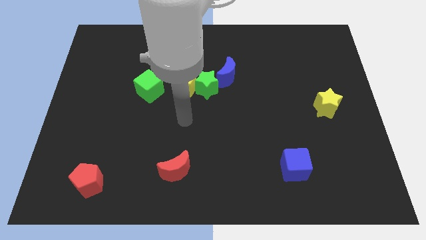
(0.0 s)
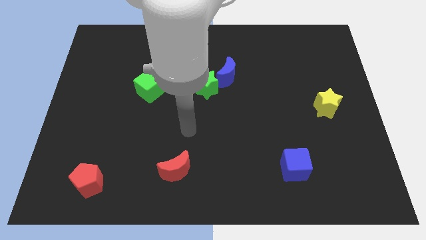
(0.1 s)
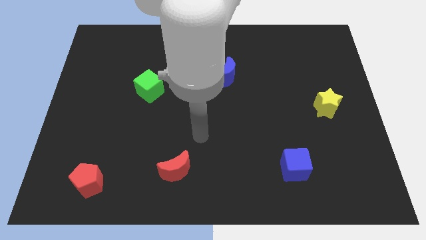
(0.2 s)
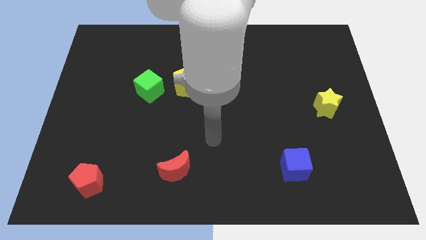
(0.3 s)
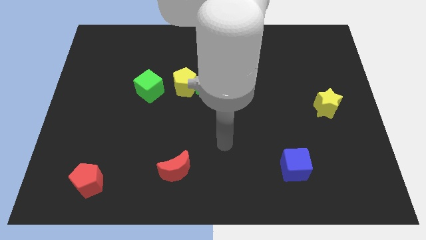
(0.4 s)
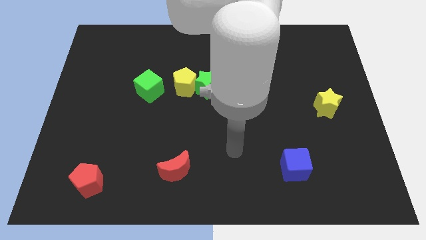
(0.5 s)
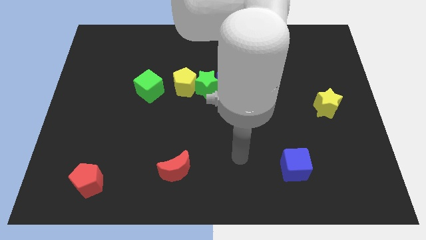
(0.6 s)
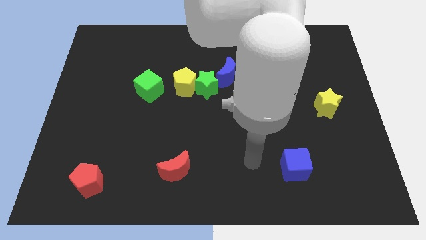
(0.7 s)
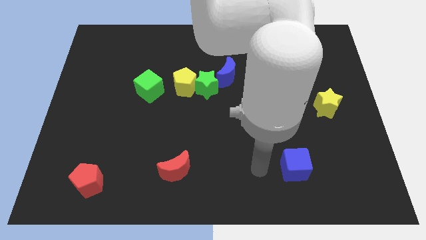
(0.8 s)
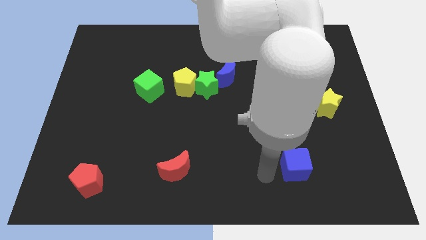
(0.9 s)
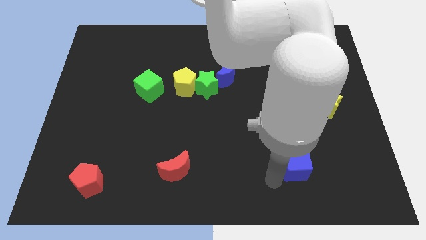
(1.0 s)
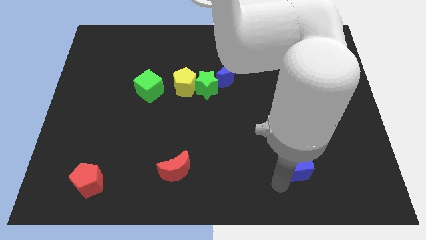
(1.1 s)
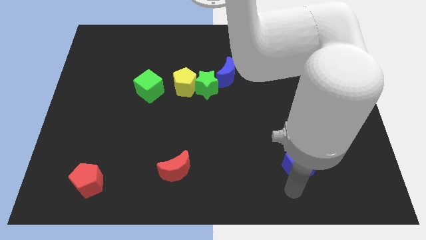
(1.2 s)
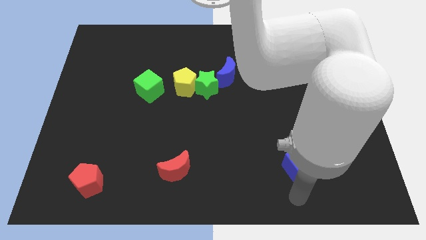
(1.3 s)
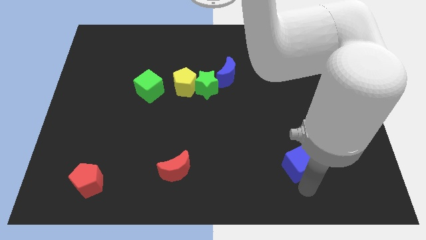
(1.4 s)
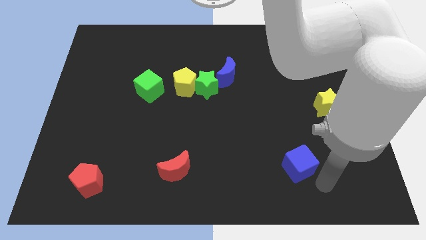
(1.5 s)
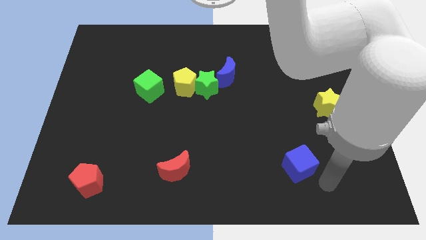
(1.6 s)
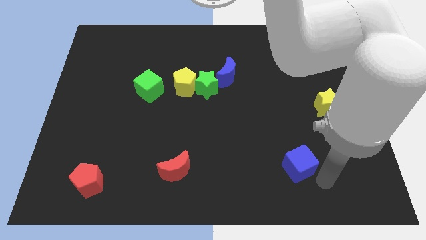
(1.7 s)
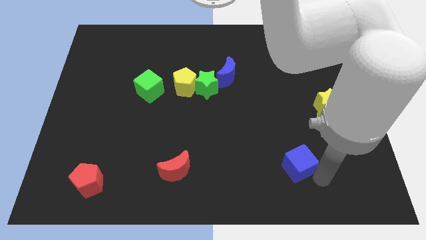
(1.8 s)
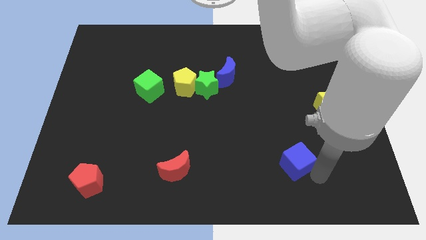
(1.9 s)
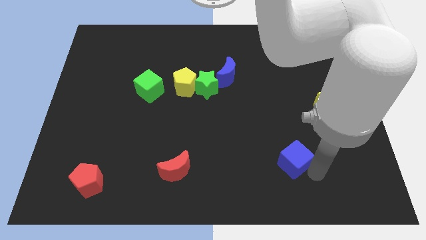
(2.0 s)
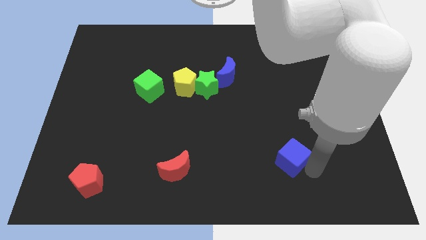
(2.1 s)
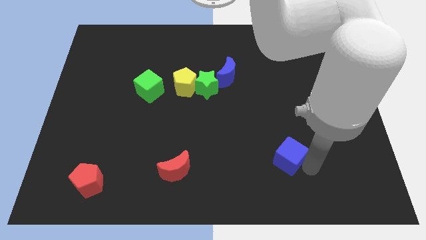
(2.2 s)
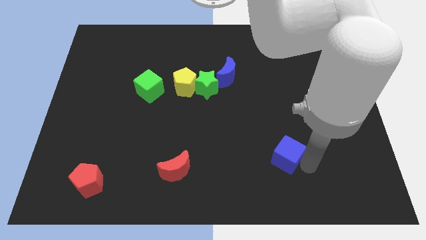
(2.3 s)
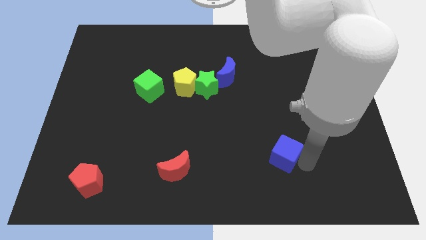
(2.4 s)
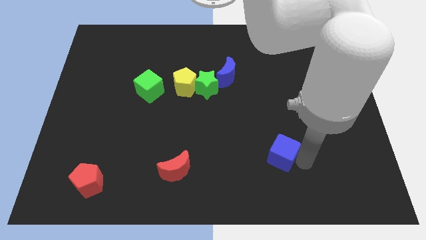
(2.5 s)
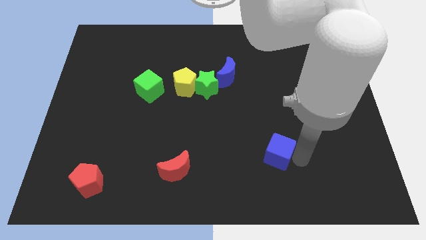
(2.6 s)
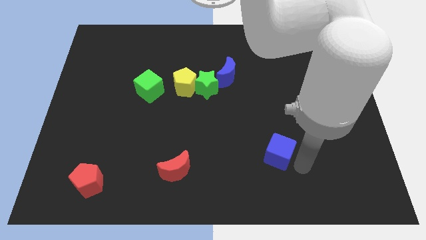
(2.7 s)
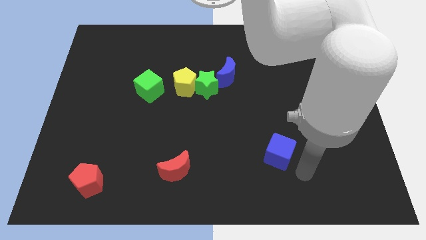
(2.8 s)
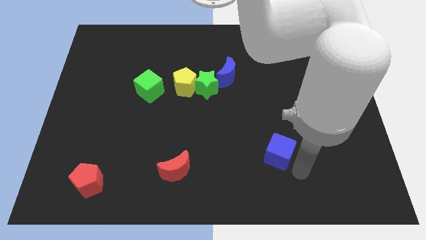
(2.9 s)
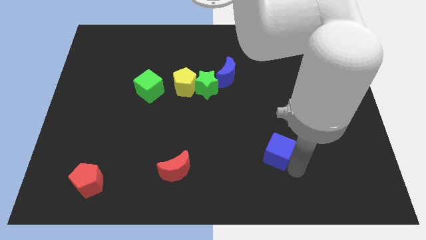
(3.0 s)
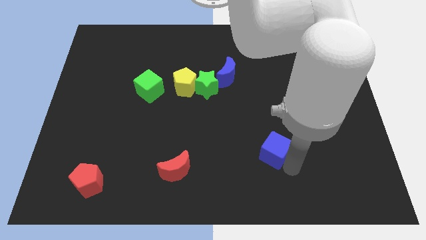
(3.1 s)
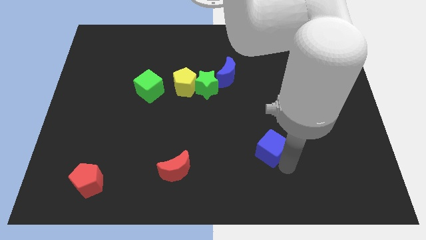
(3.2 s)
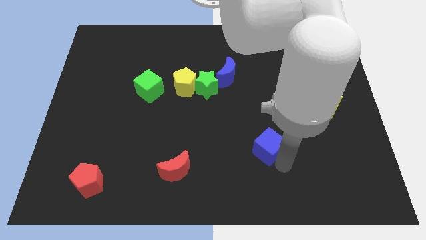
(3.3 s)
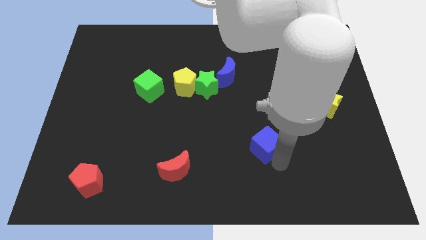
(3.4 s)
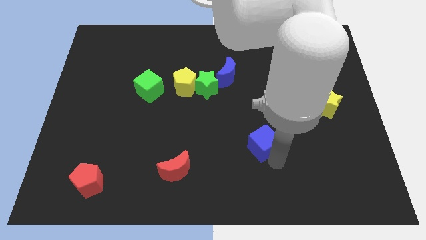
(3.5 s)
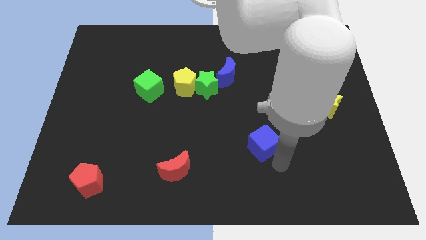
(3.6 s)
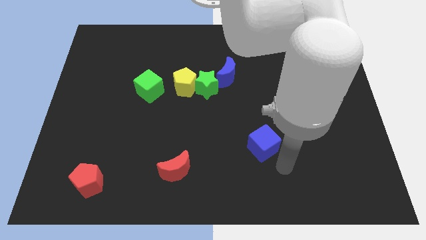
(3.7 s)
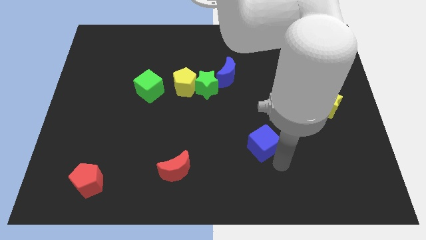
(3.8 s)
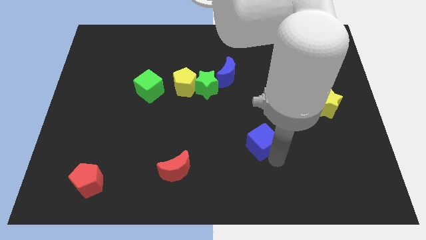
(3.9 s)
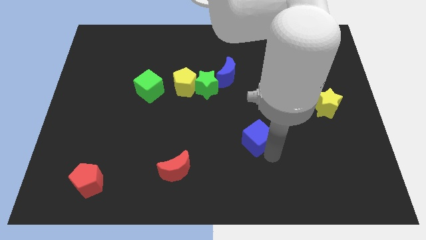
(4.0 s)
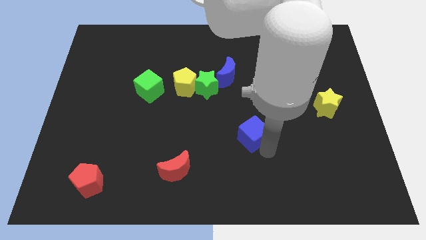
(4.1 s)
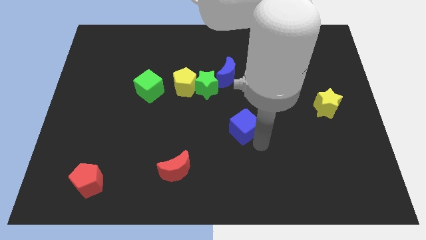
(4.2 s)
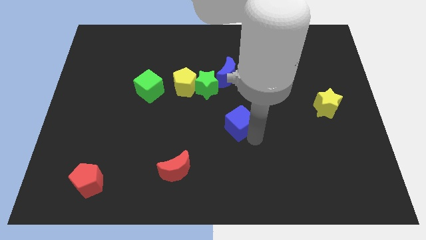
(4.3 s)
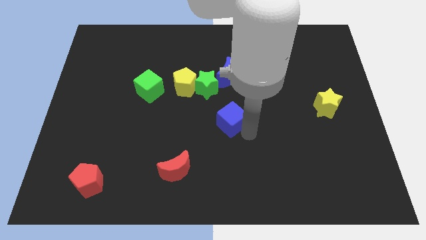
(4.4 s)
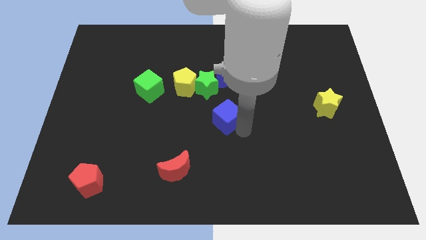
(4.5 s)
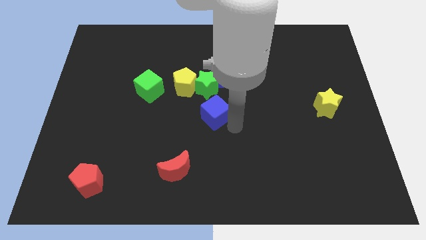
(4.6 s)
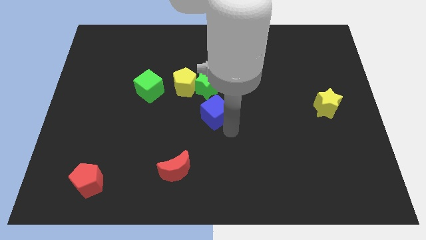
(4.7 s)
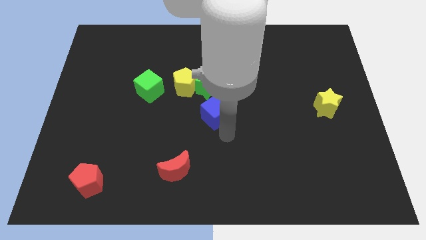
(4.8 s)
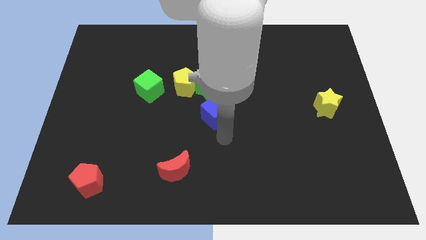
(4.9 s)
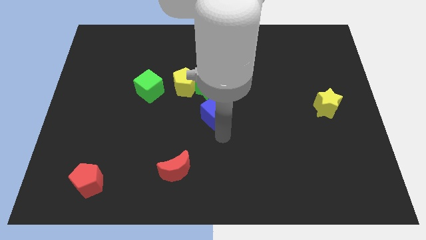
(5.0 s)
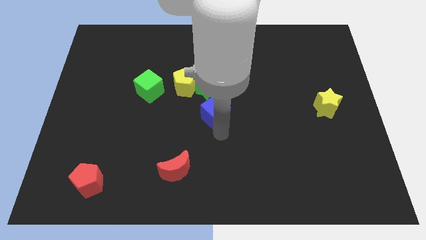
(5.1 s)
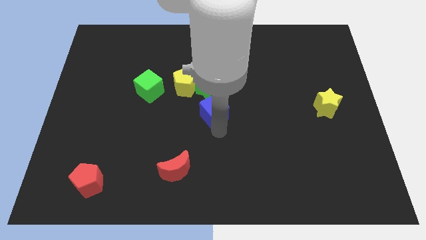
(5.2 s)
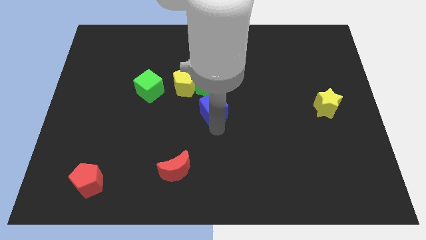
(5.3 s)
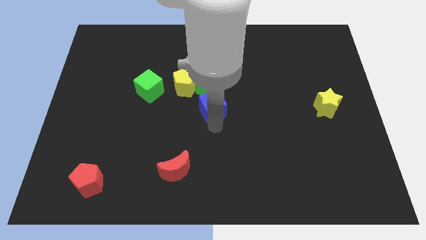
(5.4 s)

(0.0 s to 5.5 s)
put the blue cube diagonally down and to the left of the blue moon

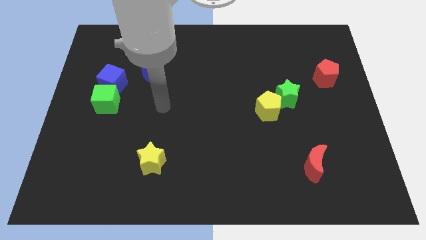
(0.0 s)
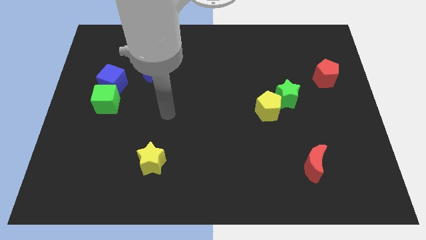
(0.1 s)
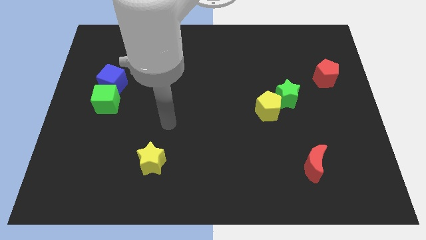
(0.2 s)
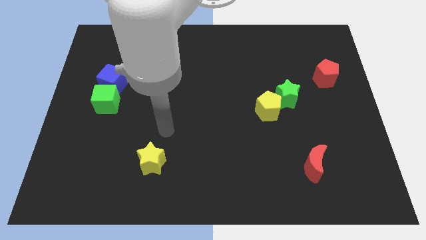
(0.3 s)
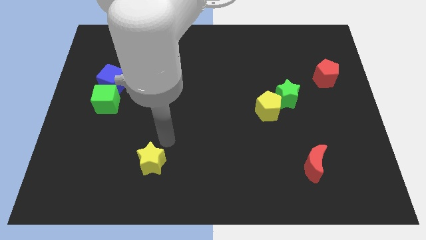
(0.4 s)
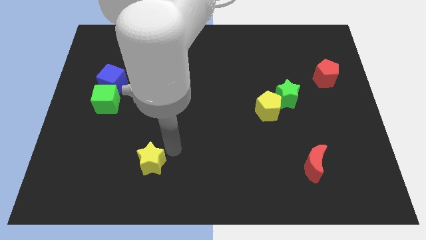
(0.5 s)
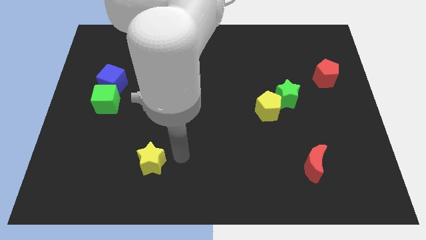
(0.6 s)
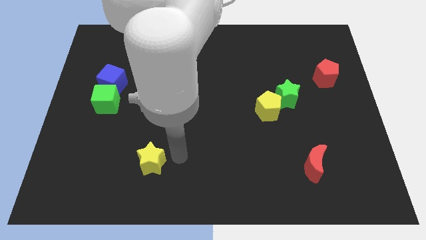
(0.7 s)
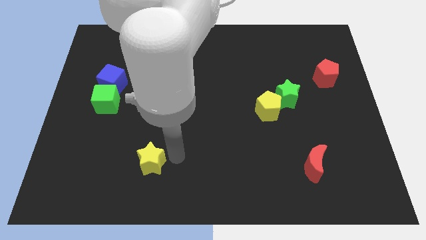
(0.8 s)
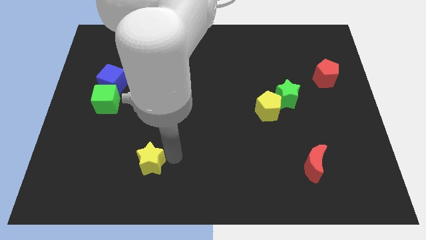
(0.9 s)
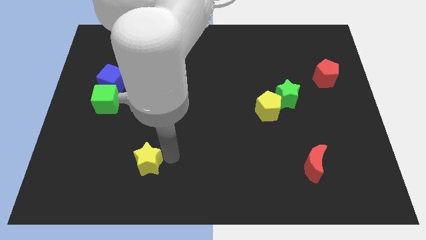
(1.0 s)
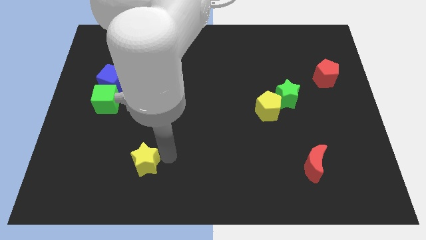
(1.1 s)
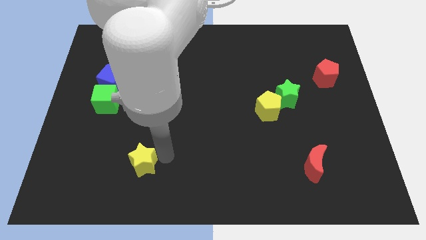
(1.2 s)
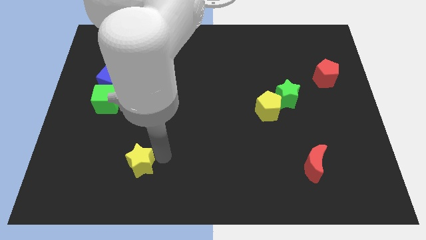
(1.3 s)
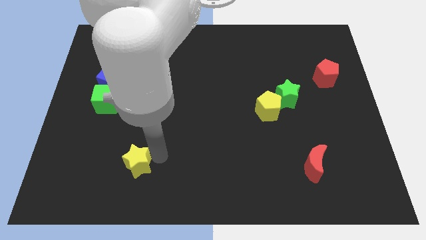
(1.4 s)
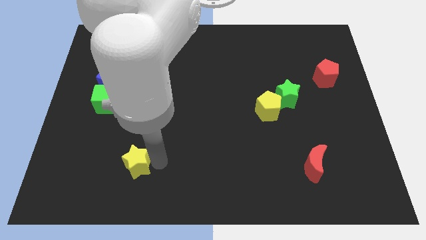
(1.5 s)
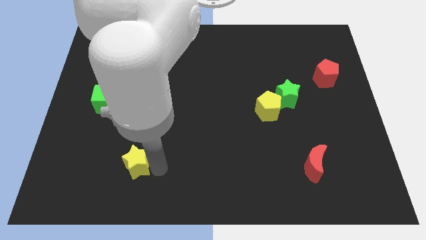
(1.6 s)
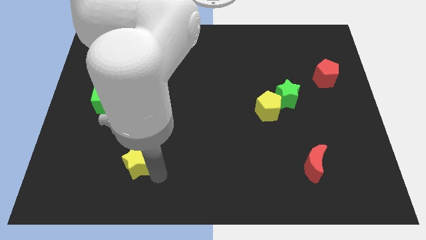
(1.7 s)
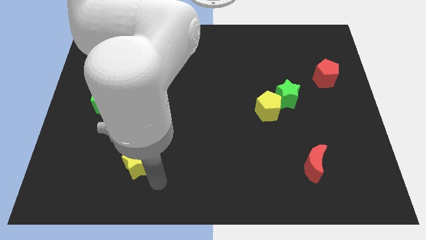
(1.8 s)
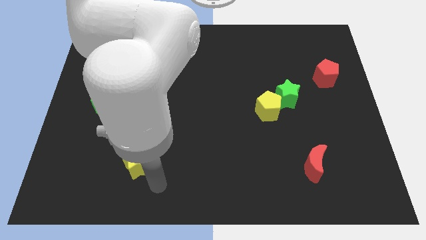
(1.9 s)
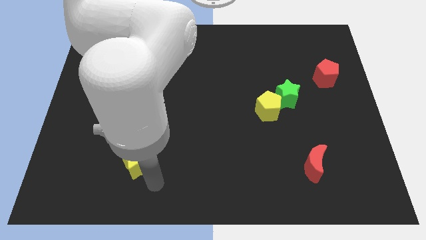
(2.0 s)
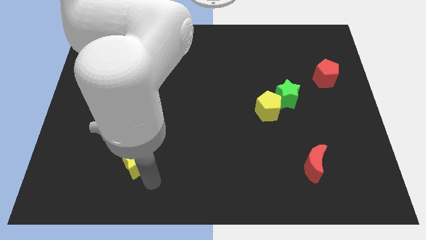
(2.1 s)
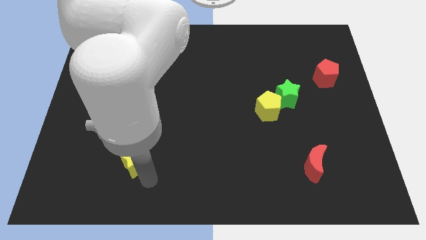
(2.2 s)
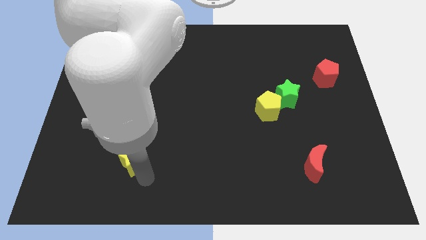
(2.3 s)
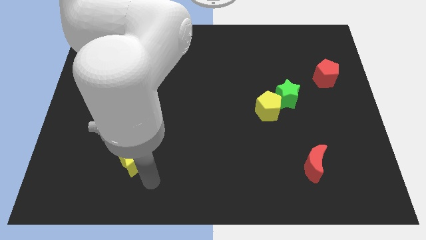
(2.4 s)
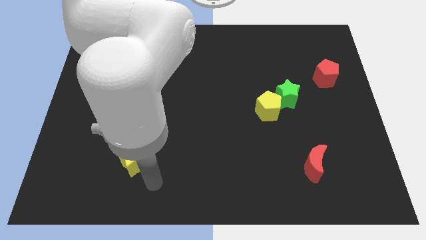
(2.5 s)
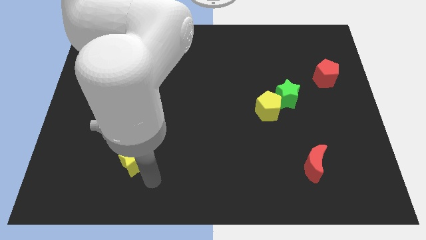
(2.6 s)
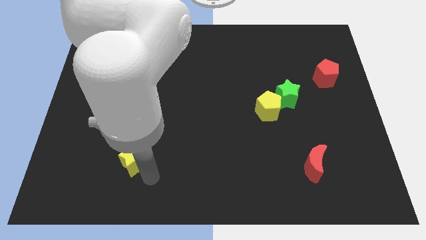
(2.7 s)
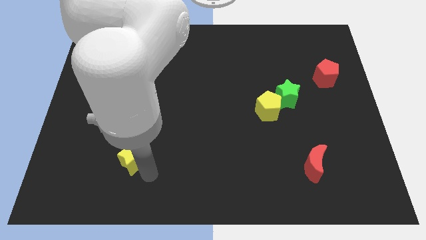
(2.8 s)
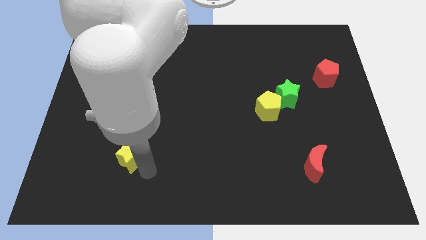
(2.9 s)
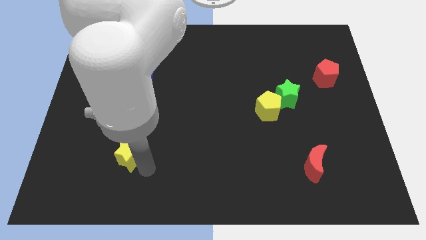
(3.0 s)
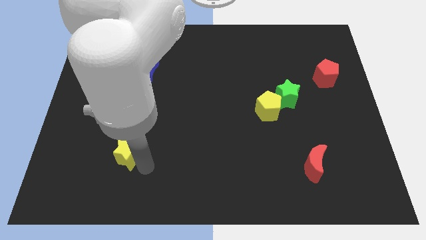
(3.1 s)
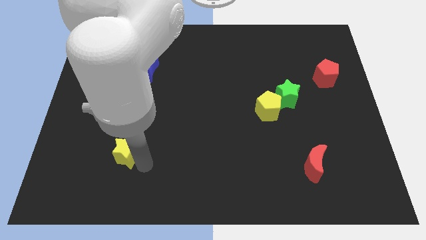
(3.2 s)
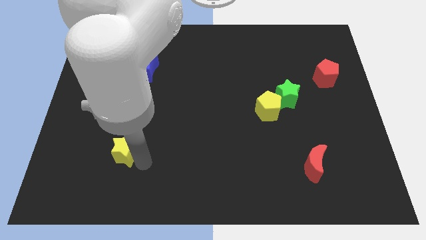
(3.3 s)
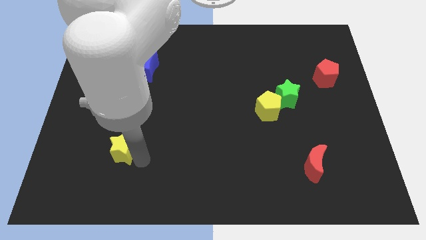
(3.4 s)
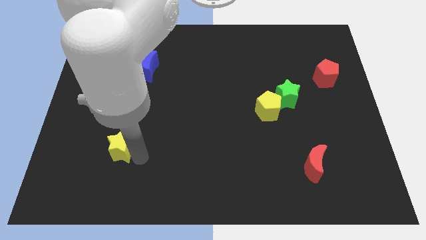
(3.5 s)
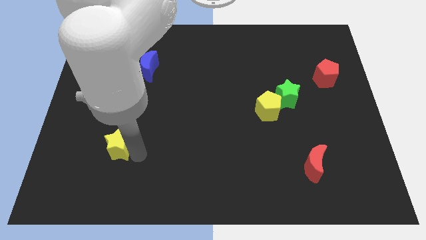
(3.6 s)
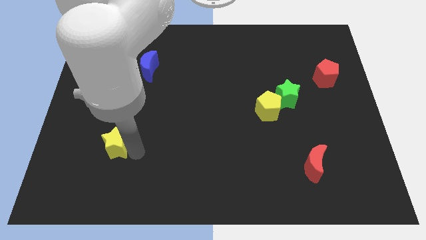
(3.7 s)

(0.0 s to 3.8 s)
move the yellow star below the green cube
